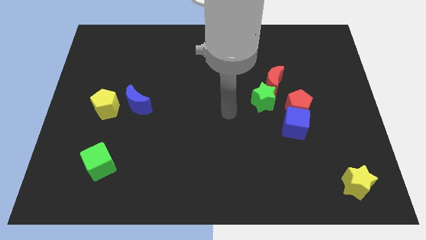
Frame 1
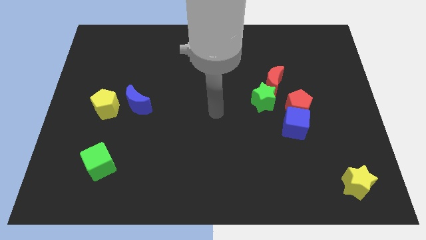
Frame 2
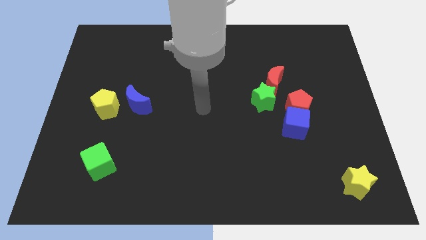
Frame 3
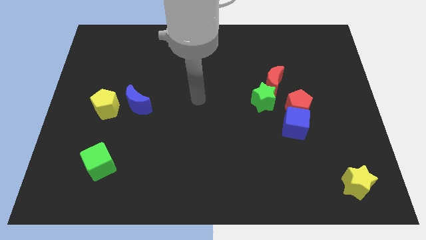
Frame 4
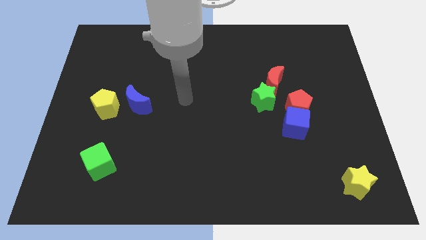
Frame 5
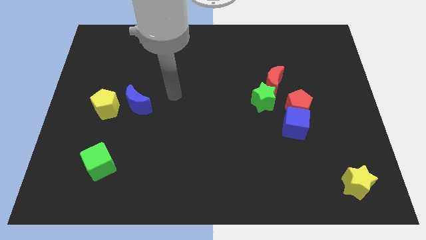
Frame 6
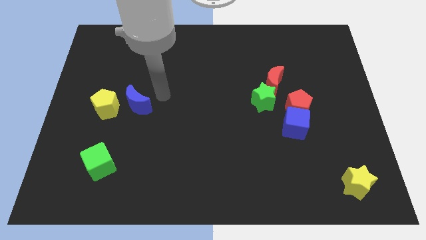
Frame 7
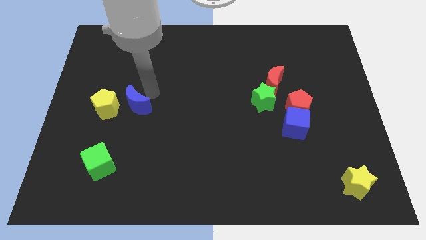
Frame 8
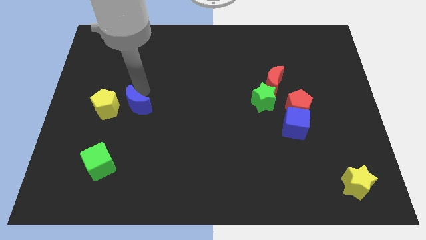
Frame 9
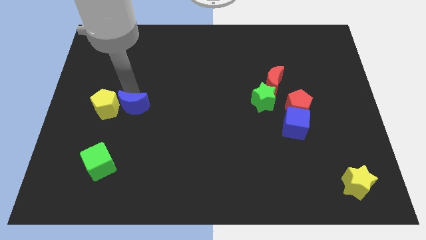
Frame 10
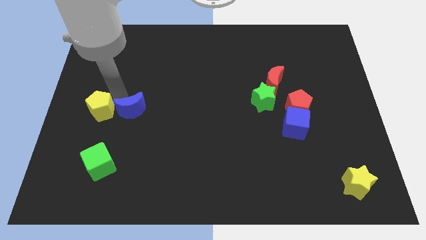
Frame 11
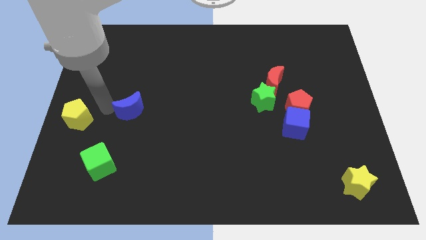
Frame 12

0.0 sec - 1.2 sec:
separate the blue moon from the yellow pentagon

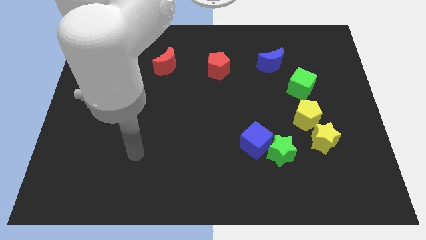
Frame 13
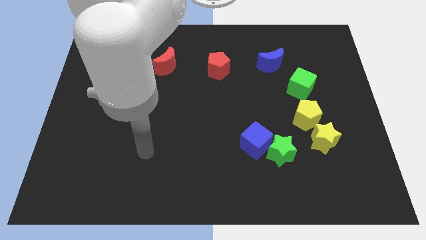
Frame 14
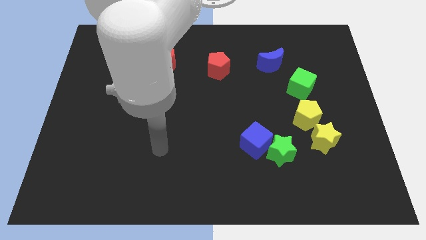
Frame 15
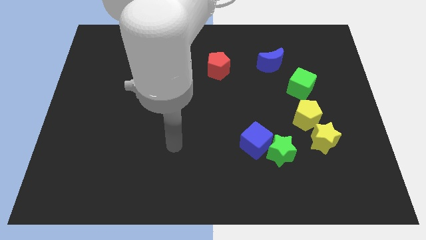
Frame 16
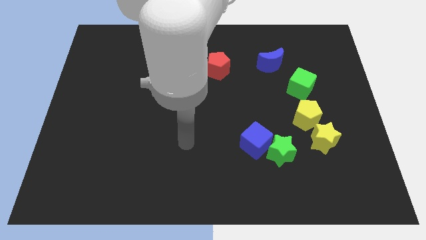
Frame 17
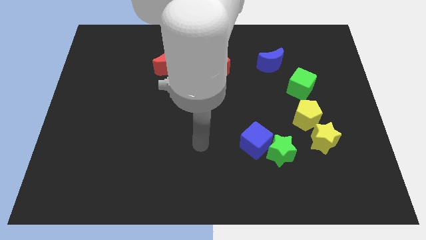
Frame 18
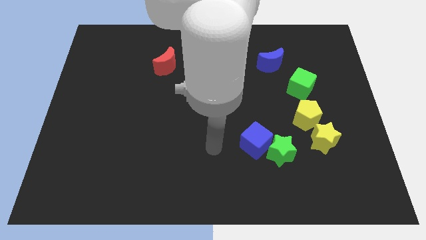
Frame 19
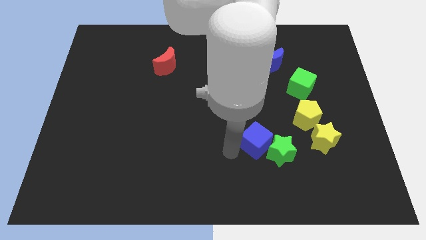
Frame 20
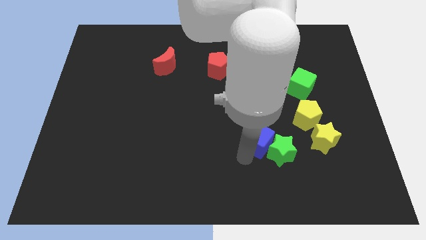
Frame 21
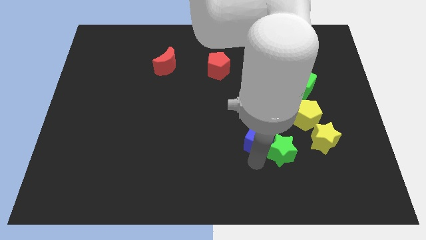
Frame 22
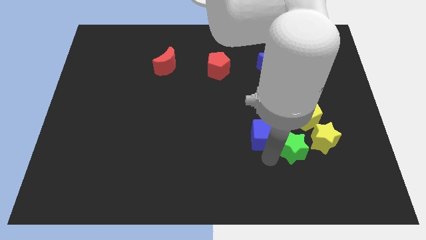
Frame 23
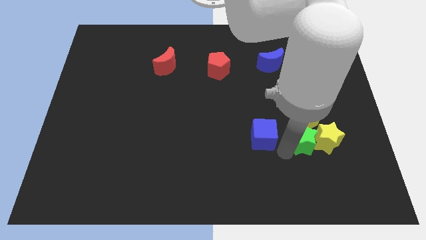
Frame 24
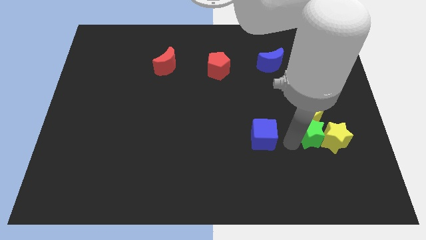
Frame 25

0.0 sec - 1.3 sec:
pull the blue cube apart from the green star

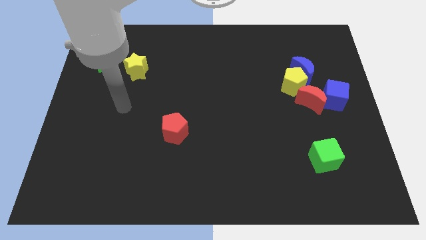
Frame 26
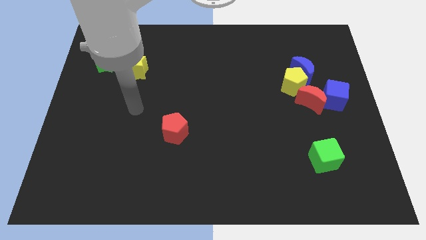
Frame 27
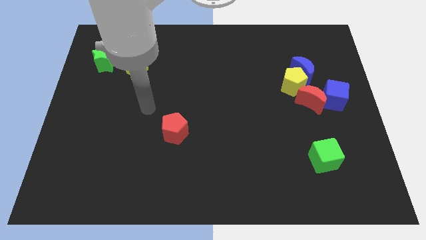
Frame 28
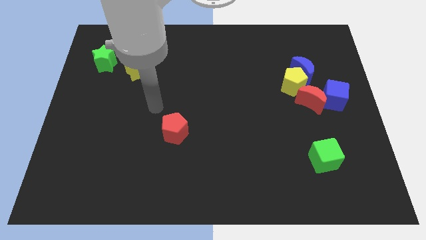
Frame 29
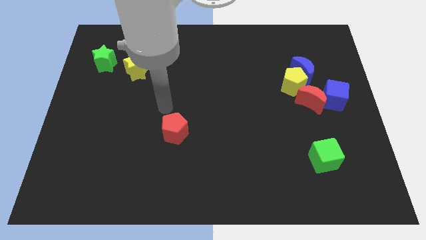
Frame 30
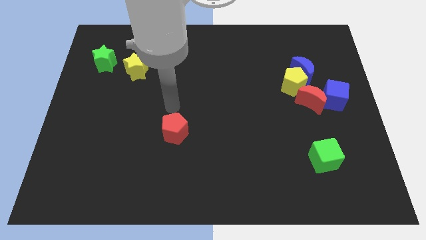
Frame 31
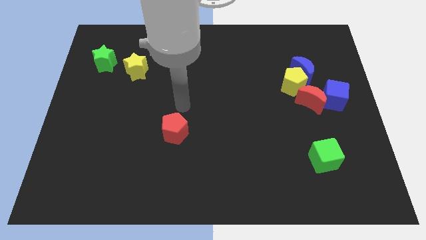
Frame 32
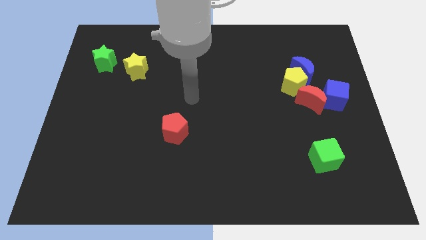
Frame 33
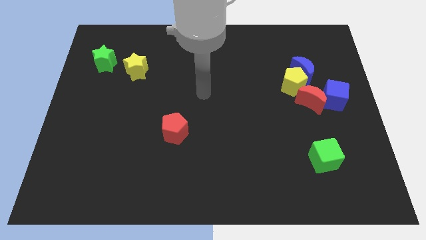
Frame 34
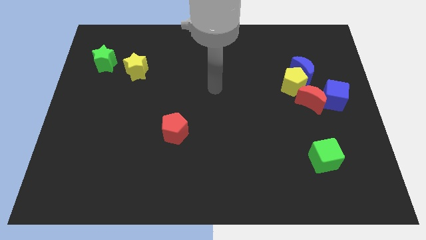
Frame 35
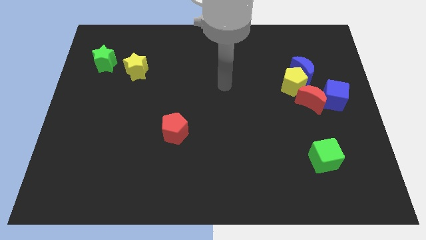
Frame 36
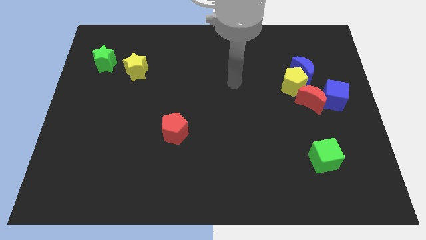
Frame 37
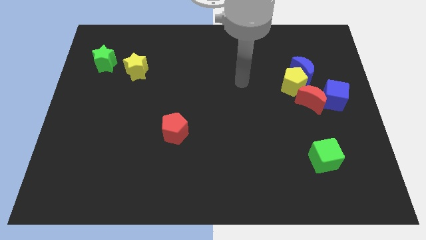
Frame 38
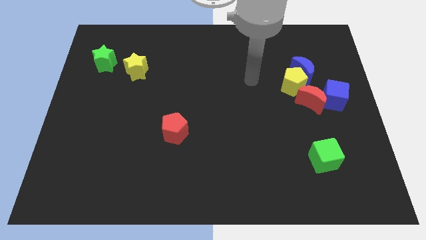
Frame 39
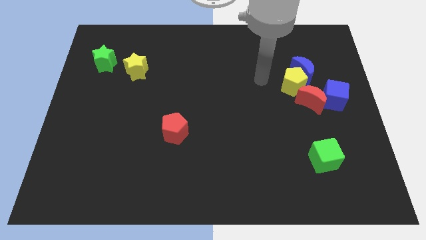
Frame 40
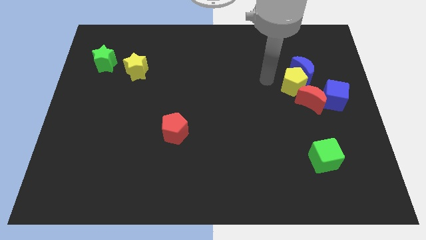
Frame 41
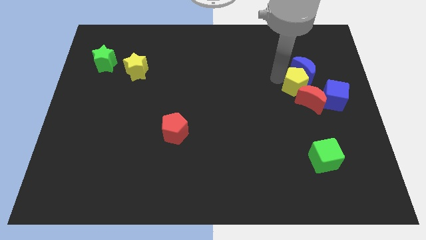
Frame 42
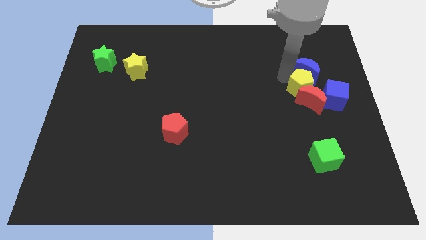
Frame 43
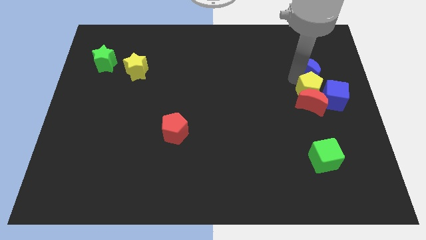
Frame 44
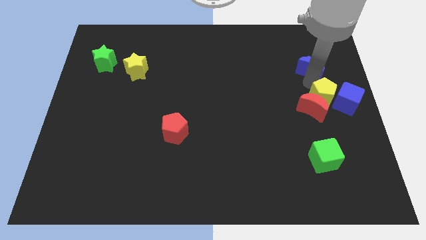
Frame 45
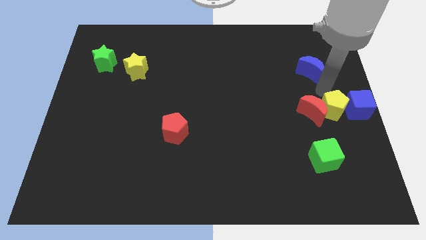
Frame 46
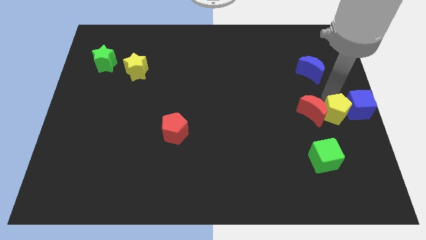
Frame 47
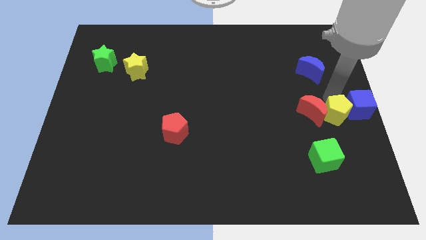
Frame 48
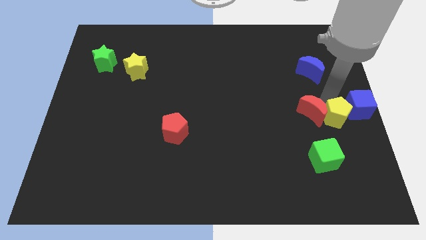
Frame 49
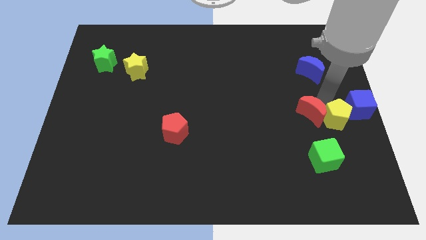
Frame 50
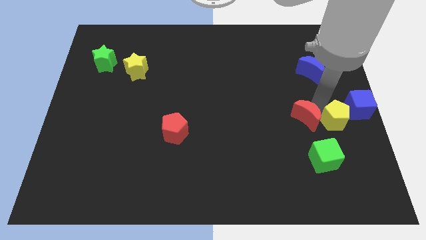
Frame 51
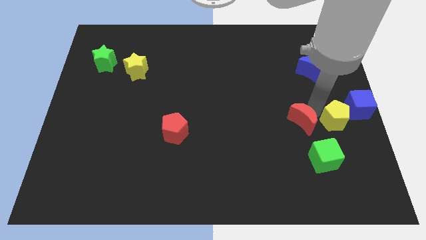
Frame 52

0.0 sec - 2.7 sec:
separate the red moon from the blue cube, yellow pentagon, and blue moon

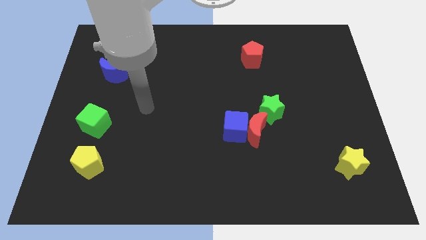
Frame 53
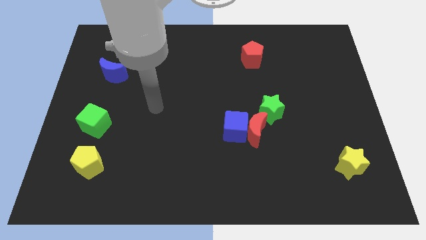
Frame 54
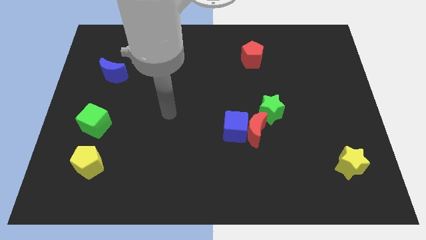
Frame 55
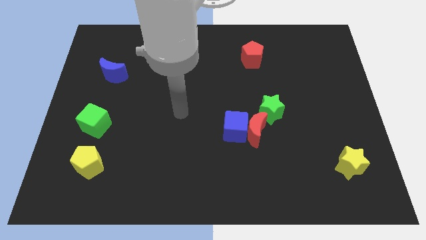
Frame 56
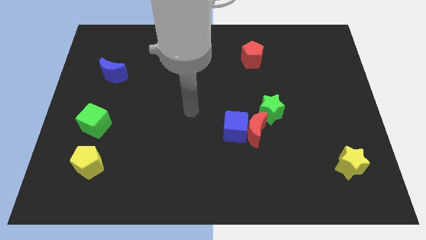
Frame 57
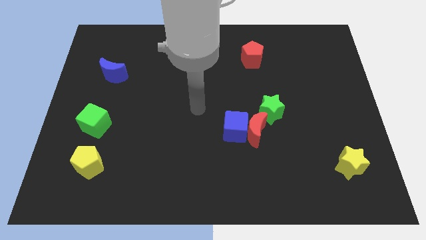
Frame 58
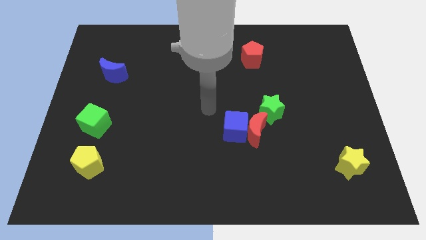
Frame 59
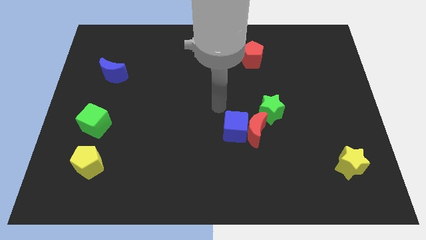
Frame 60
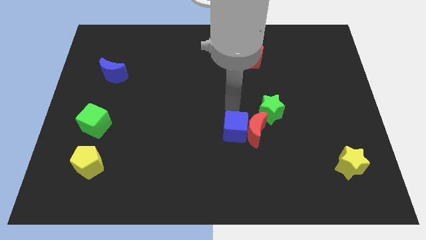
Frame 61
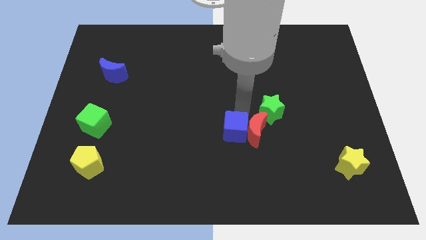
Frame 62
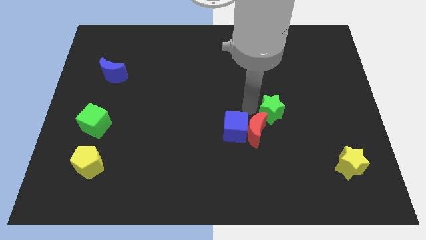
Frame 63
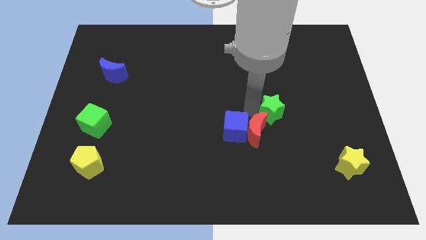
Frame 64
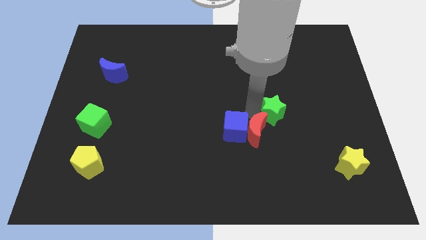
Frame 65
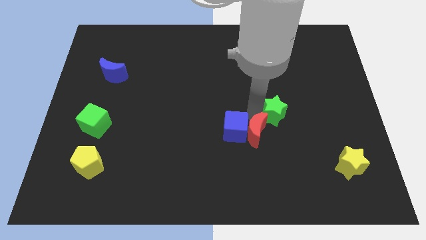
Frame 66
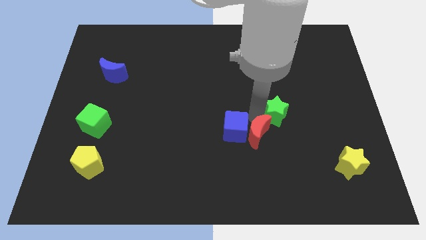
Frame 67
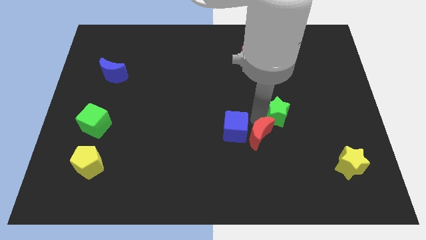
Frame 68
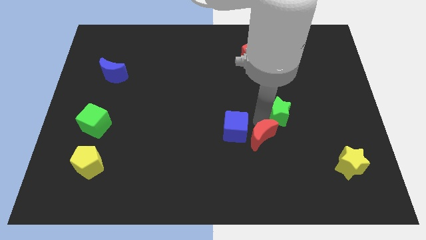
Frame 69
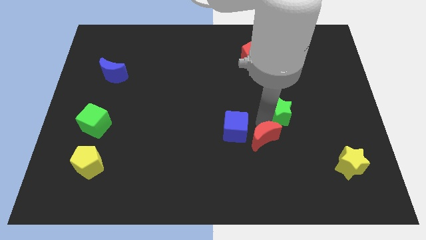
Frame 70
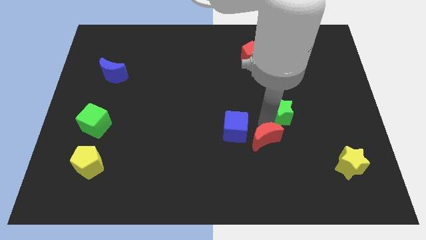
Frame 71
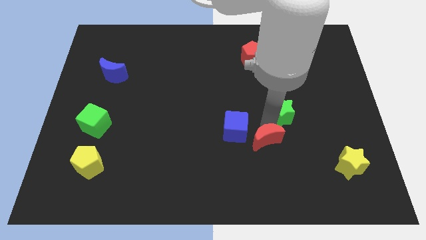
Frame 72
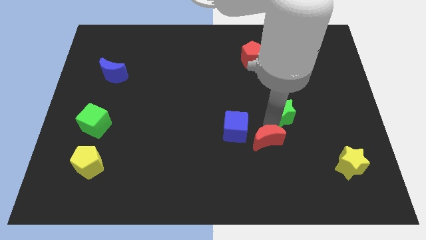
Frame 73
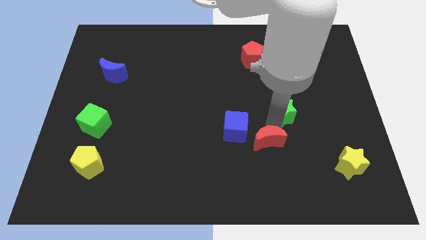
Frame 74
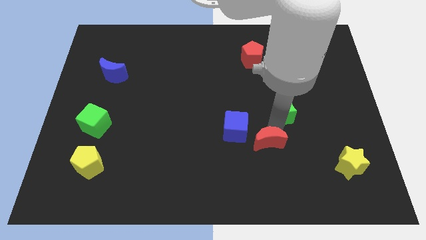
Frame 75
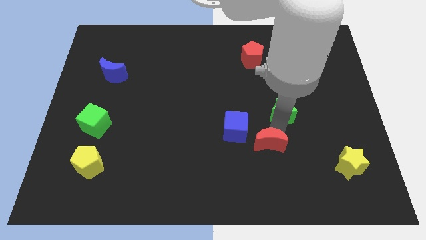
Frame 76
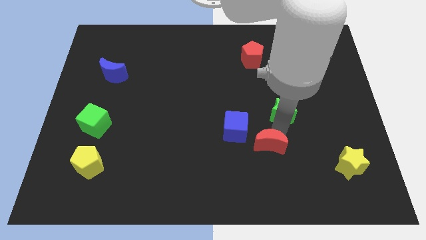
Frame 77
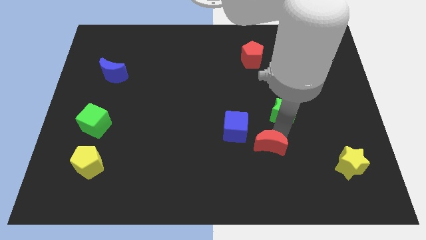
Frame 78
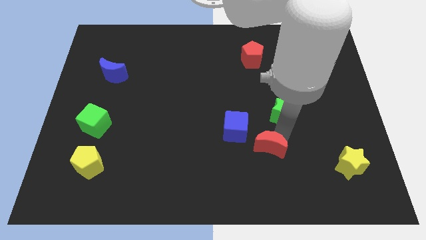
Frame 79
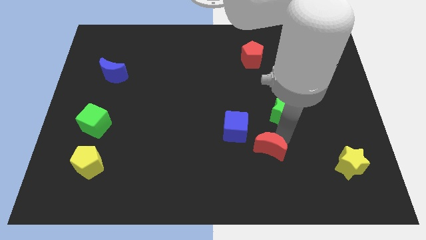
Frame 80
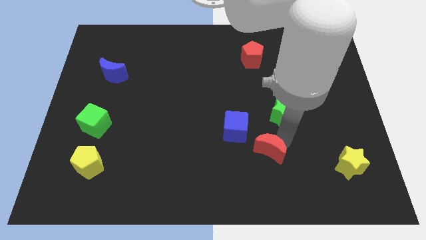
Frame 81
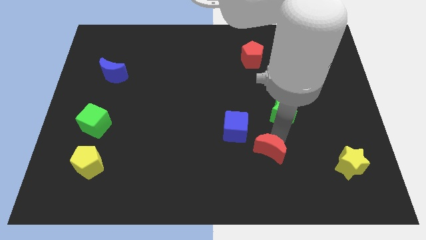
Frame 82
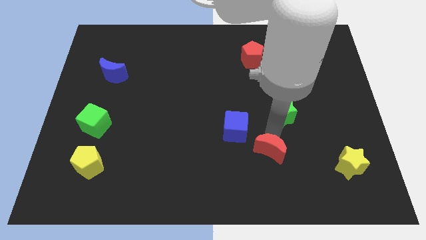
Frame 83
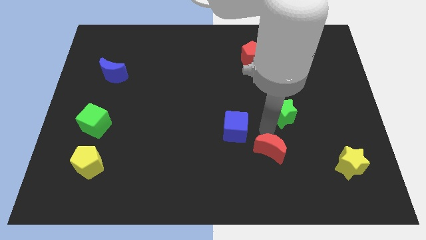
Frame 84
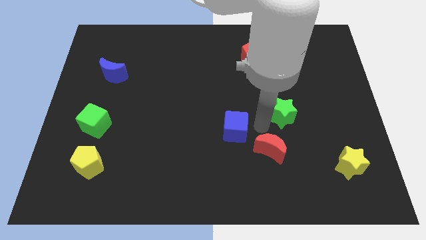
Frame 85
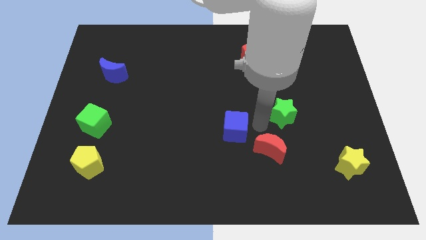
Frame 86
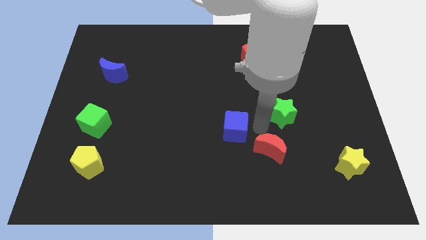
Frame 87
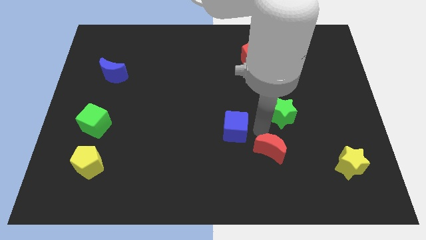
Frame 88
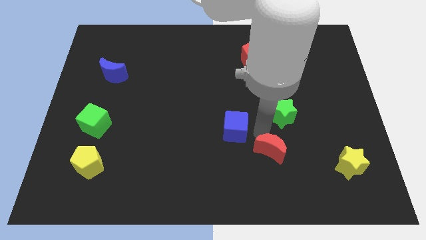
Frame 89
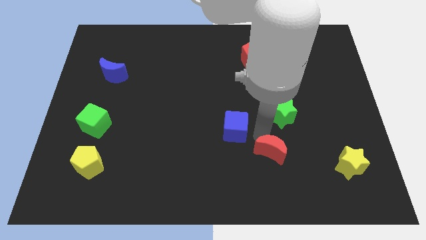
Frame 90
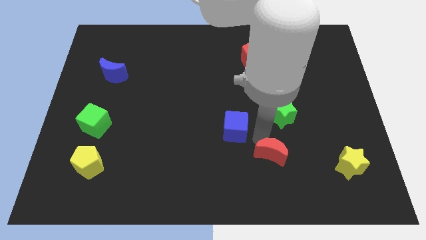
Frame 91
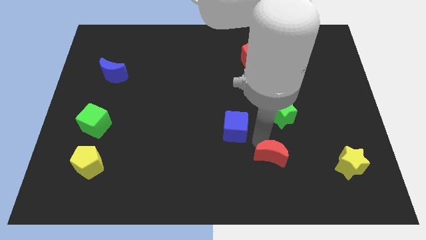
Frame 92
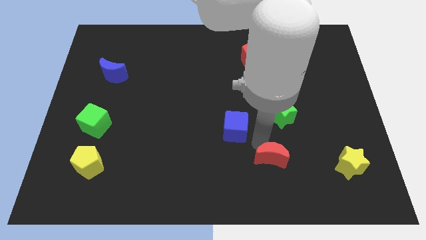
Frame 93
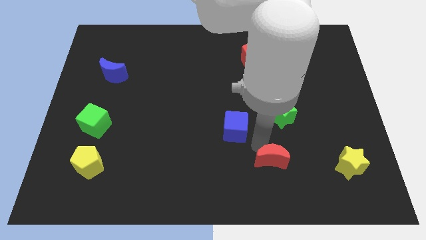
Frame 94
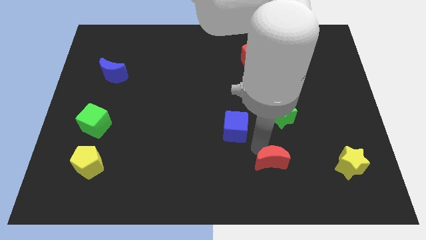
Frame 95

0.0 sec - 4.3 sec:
move the red moon away from the blue cube and green star
